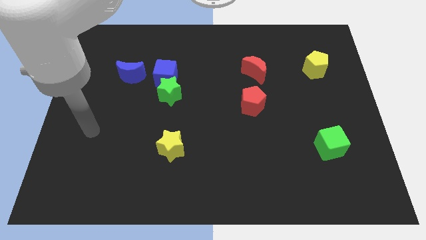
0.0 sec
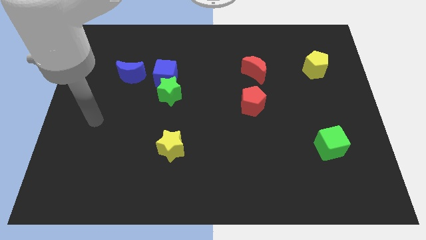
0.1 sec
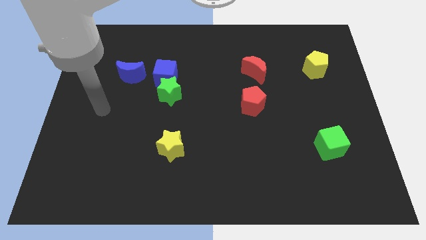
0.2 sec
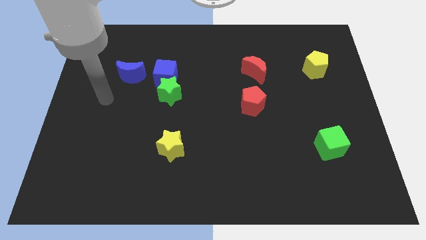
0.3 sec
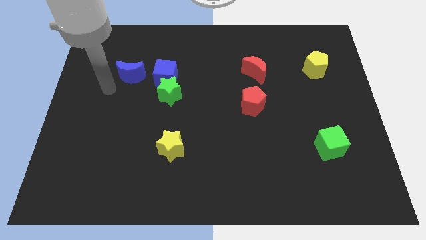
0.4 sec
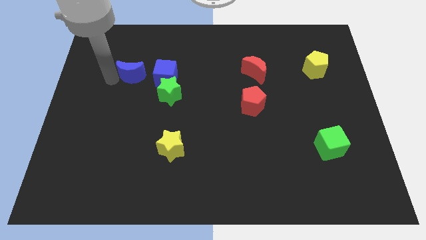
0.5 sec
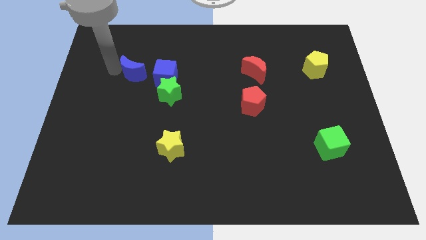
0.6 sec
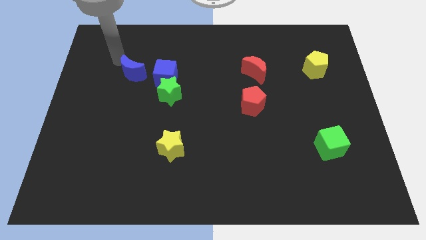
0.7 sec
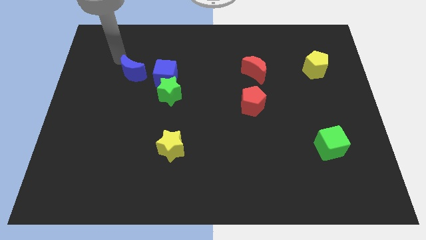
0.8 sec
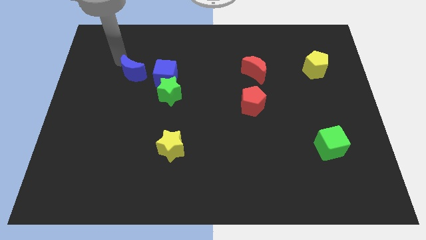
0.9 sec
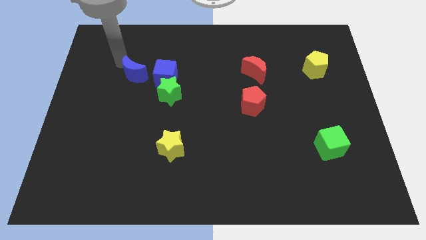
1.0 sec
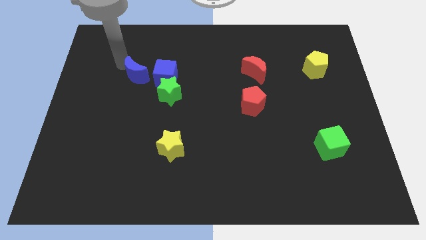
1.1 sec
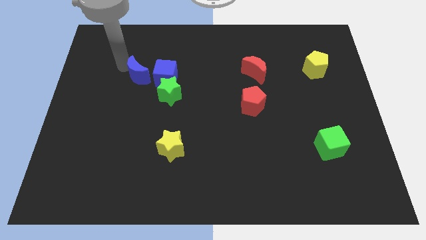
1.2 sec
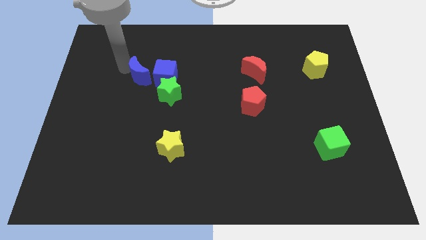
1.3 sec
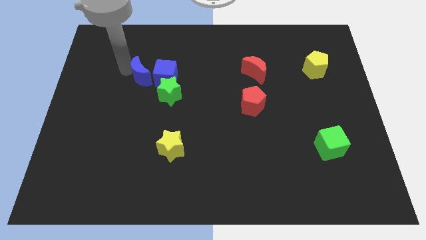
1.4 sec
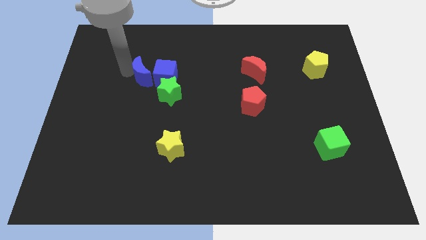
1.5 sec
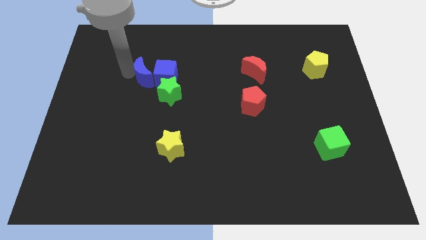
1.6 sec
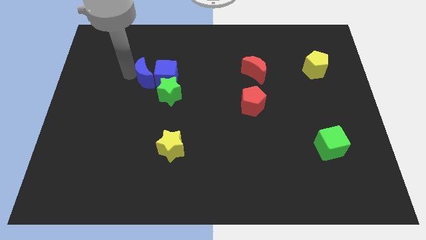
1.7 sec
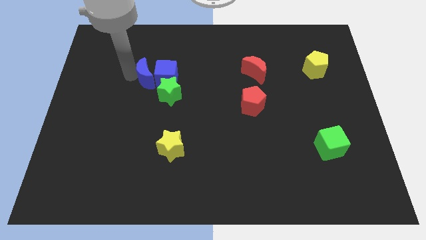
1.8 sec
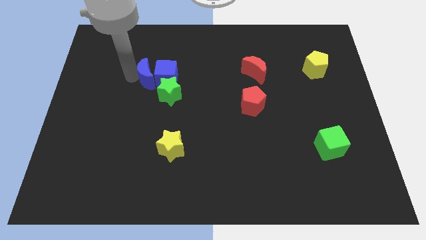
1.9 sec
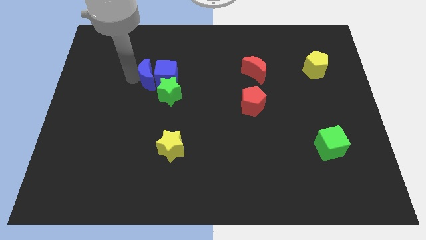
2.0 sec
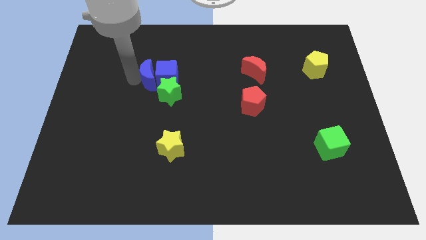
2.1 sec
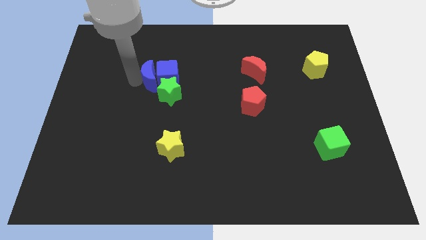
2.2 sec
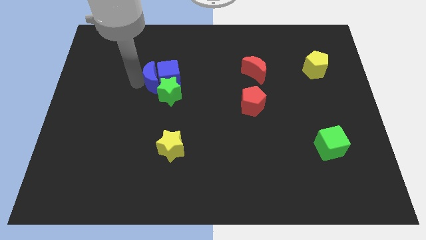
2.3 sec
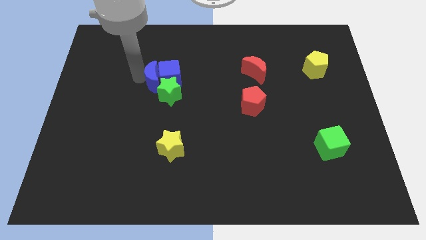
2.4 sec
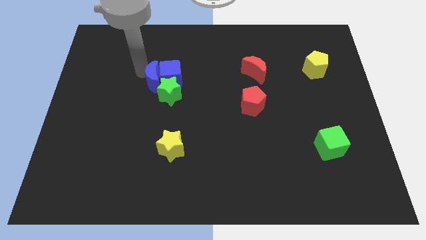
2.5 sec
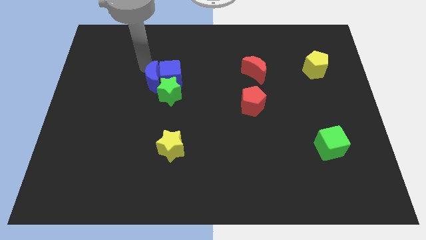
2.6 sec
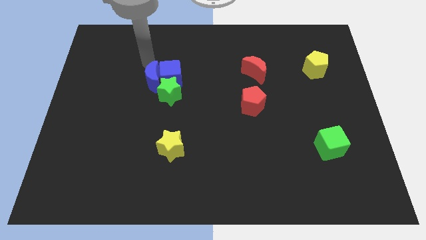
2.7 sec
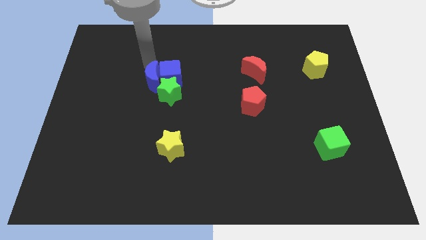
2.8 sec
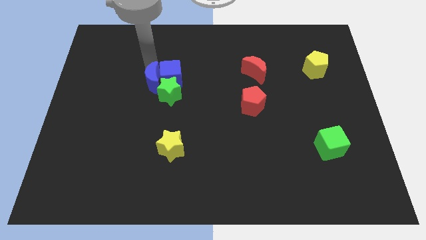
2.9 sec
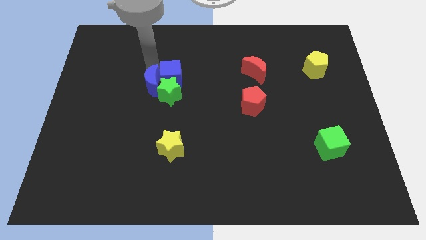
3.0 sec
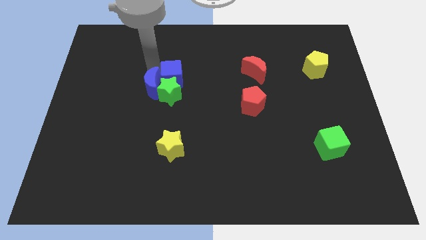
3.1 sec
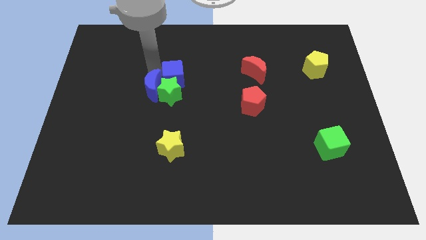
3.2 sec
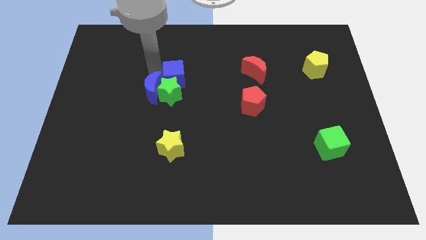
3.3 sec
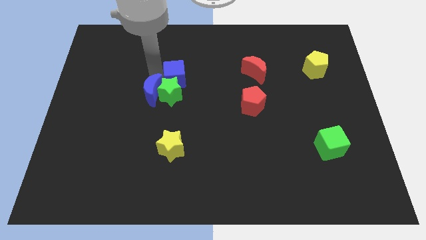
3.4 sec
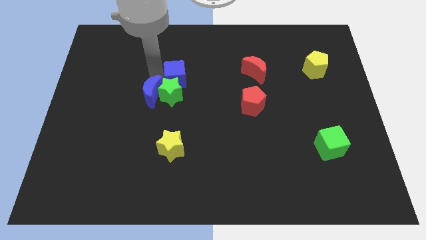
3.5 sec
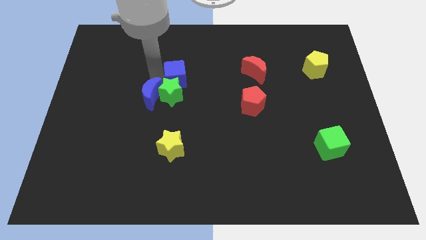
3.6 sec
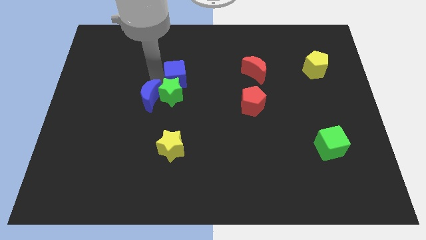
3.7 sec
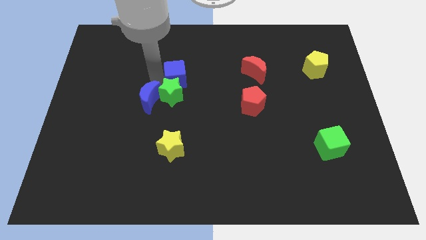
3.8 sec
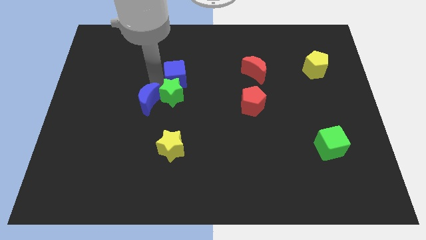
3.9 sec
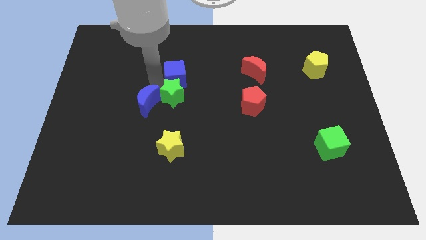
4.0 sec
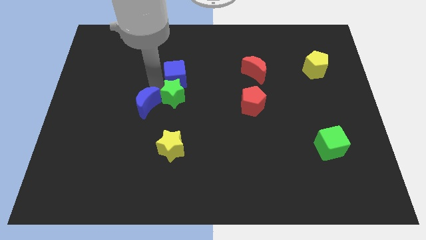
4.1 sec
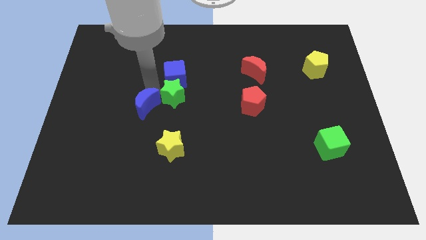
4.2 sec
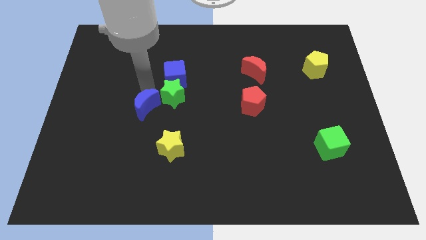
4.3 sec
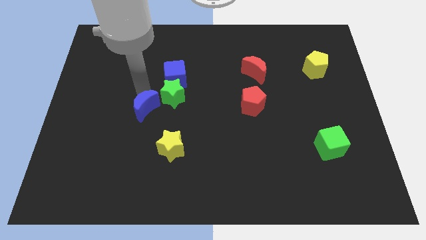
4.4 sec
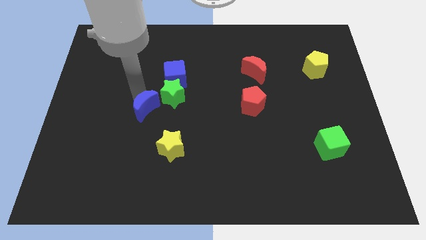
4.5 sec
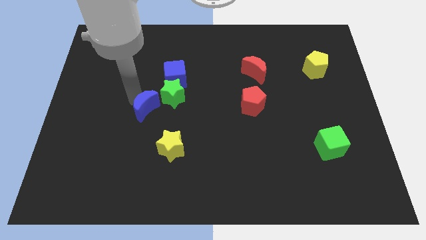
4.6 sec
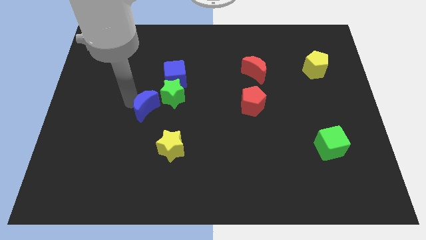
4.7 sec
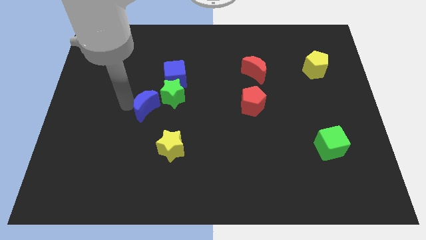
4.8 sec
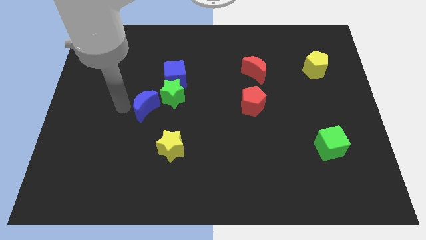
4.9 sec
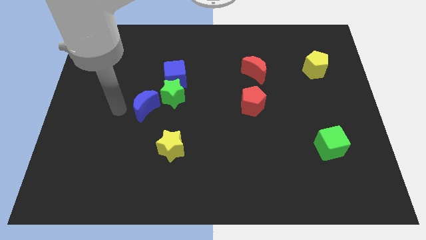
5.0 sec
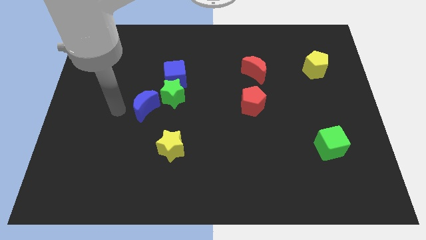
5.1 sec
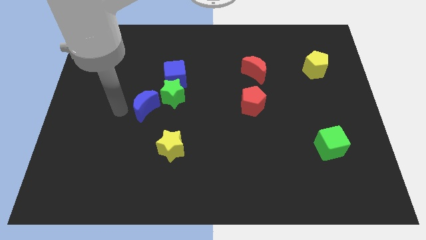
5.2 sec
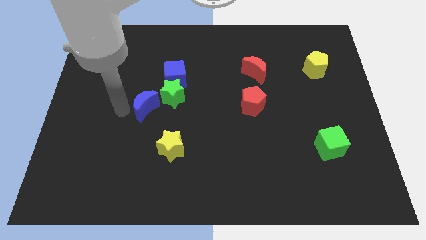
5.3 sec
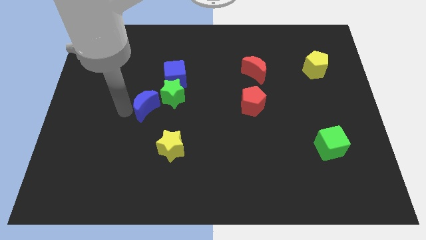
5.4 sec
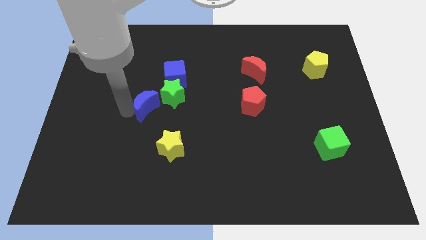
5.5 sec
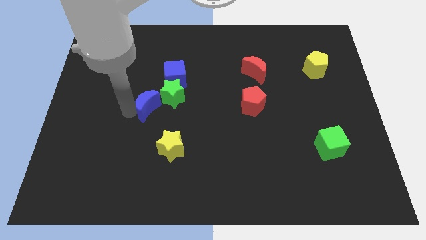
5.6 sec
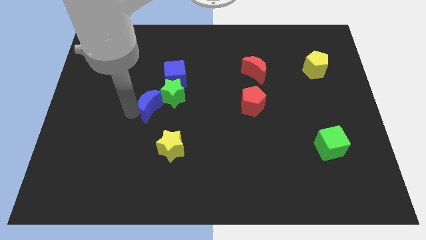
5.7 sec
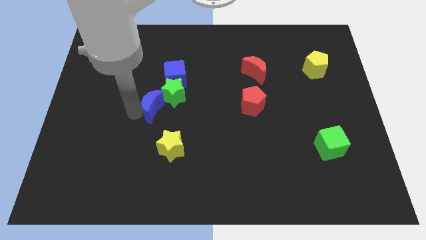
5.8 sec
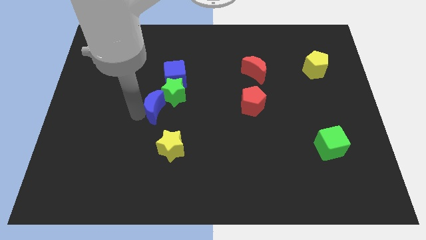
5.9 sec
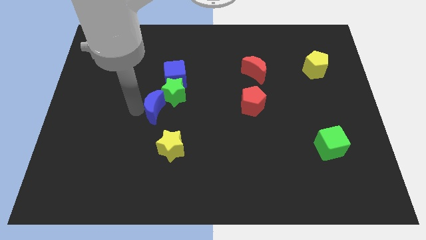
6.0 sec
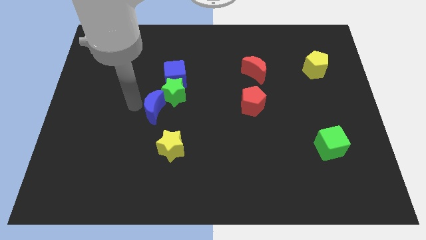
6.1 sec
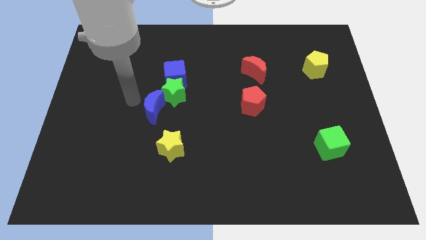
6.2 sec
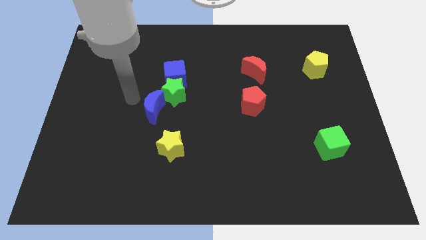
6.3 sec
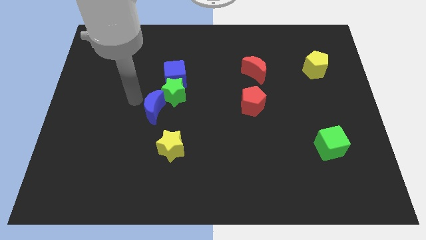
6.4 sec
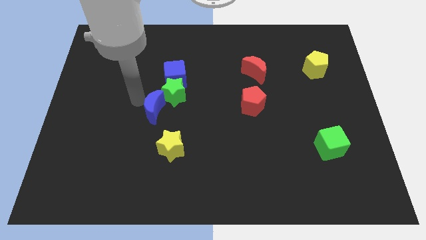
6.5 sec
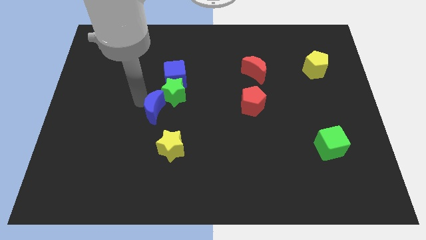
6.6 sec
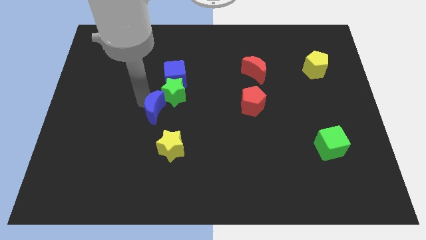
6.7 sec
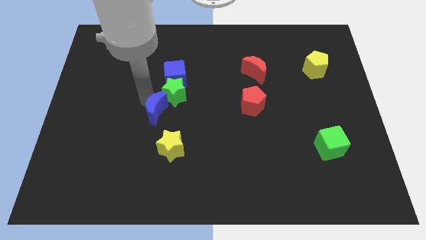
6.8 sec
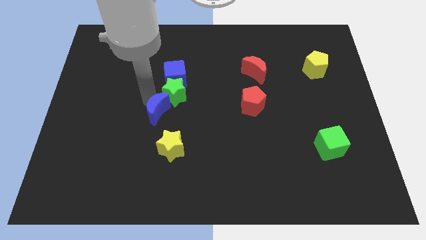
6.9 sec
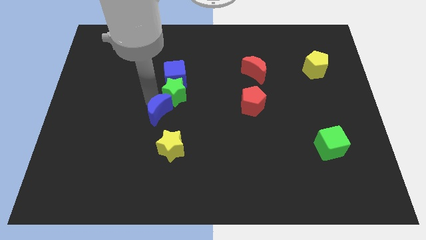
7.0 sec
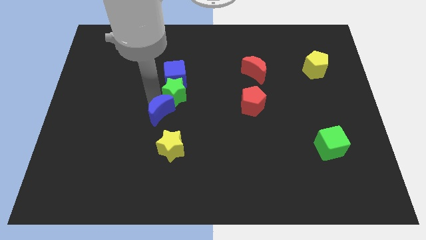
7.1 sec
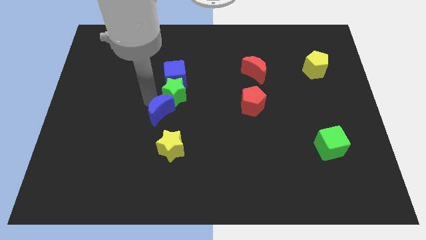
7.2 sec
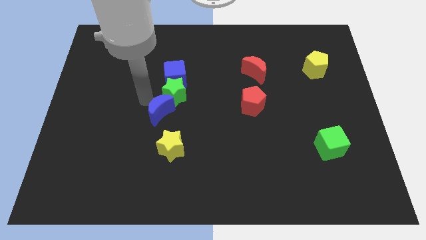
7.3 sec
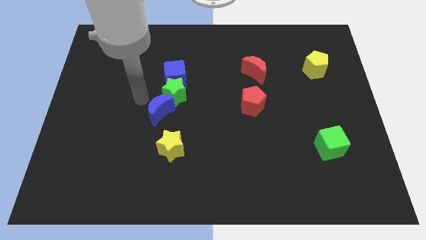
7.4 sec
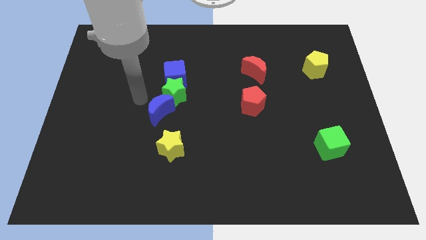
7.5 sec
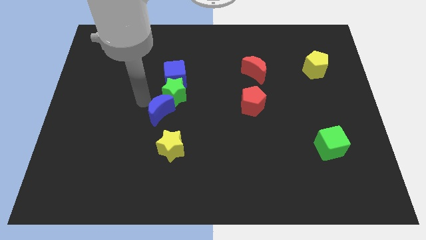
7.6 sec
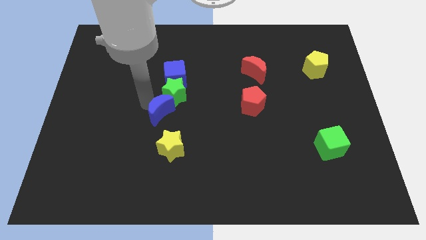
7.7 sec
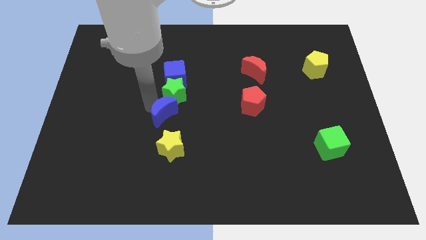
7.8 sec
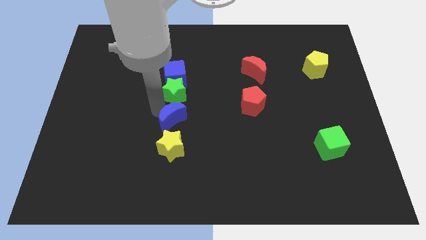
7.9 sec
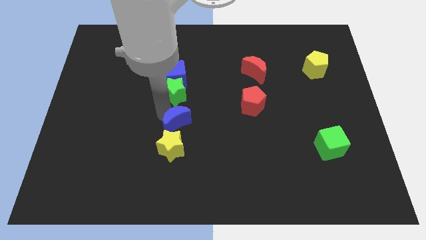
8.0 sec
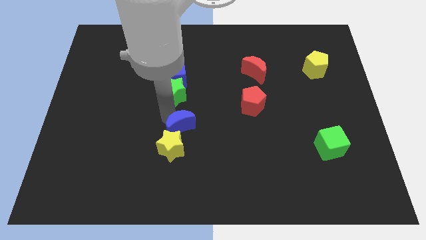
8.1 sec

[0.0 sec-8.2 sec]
move the blue moon down and right diagonally
